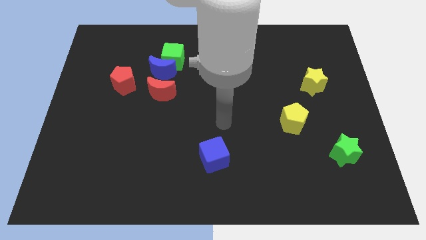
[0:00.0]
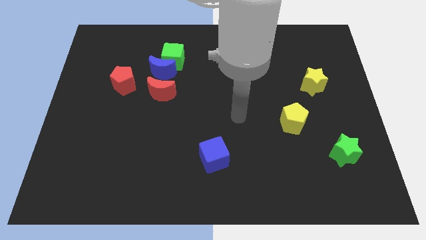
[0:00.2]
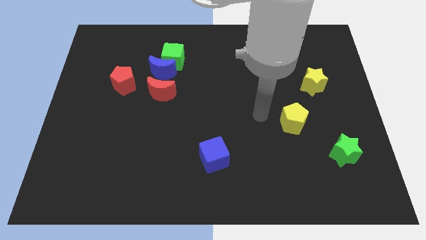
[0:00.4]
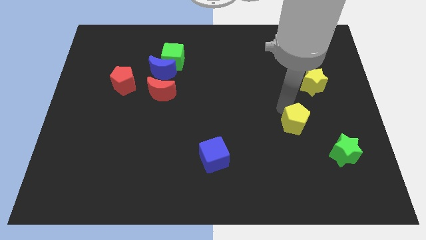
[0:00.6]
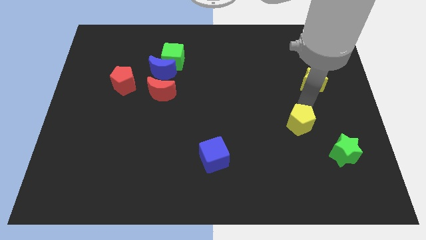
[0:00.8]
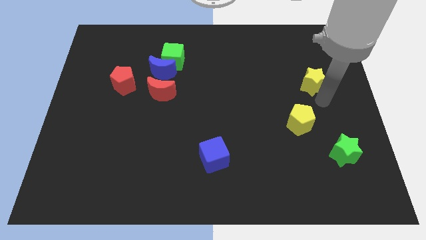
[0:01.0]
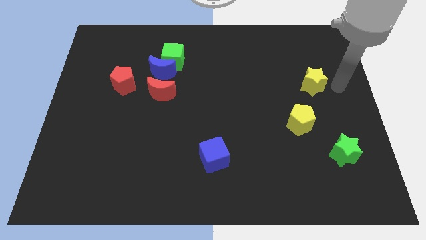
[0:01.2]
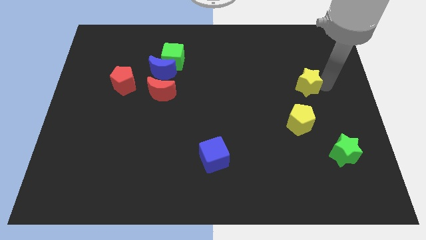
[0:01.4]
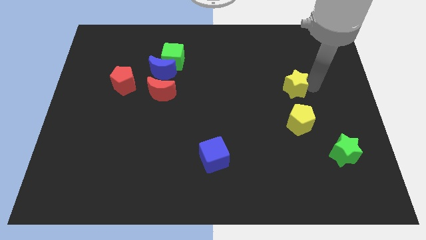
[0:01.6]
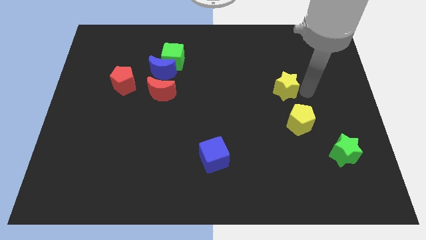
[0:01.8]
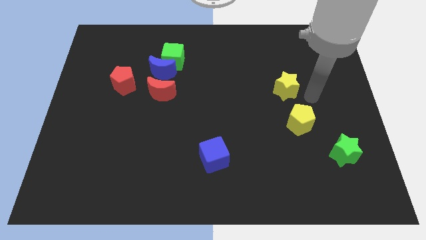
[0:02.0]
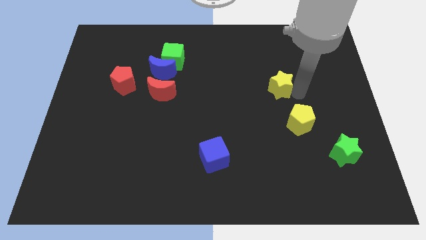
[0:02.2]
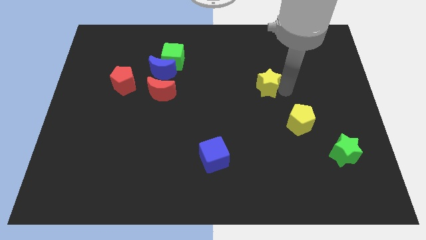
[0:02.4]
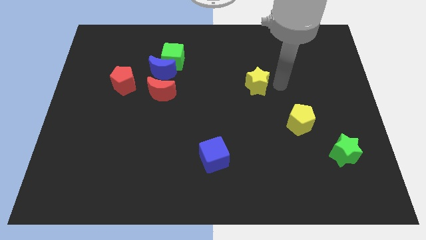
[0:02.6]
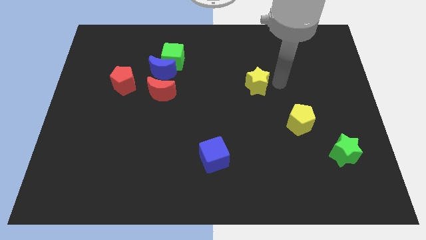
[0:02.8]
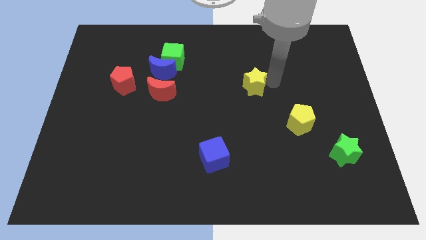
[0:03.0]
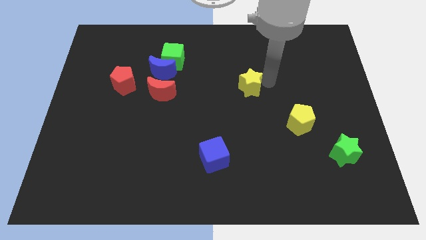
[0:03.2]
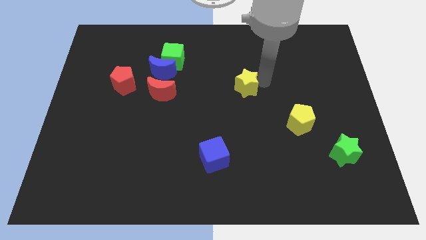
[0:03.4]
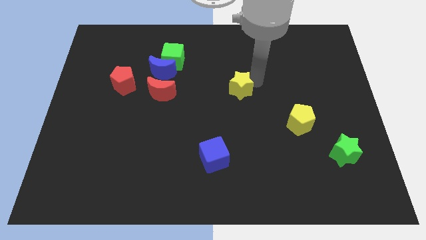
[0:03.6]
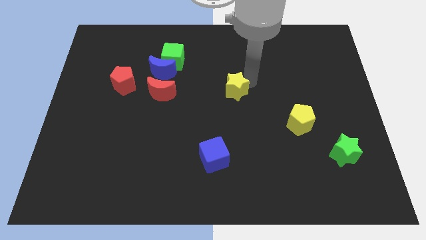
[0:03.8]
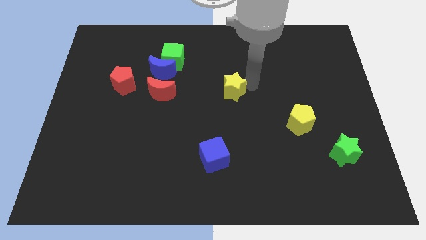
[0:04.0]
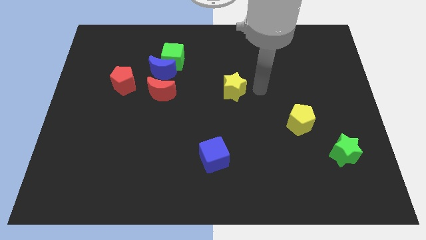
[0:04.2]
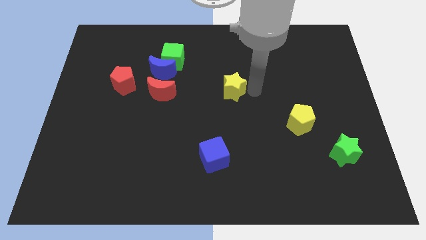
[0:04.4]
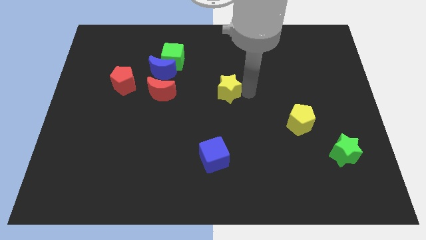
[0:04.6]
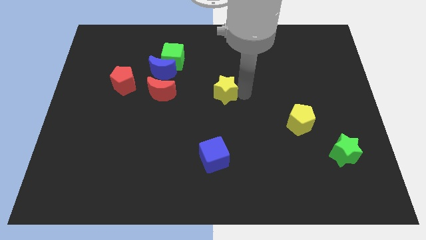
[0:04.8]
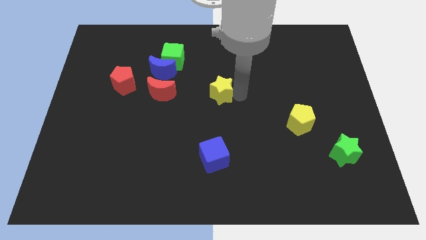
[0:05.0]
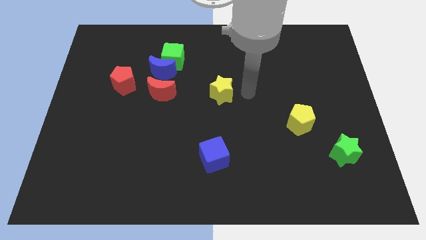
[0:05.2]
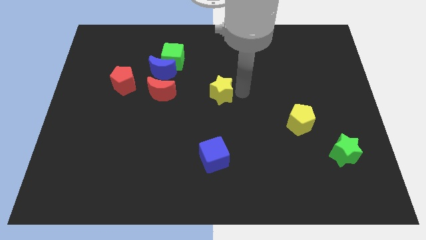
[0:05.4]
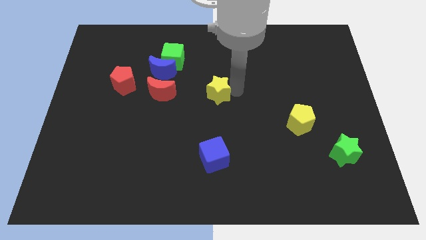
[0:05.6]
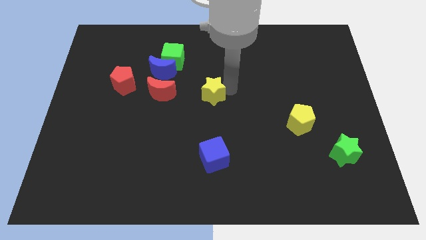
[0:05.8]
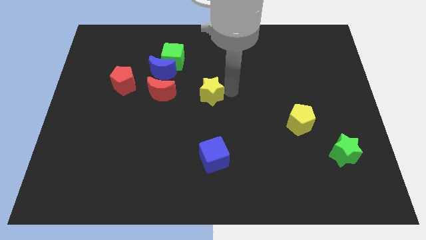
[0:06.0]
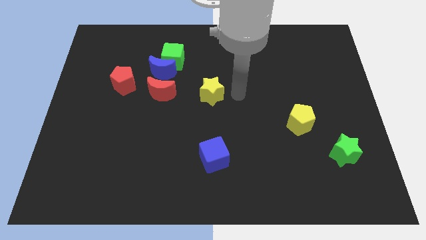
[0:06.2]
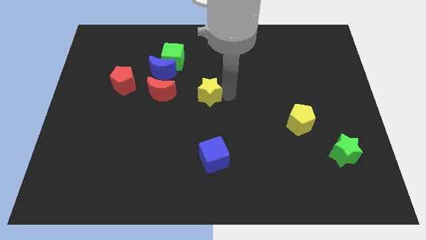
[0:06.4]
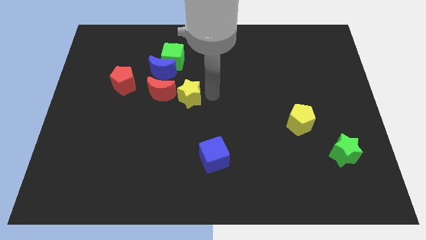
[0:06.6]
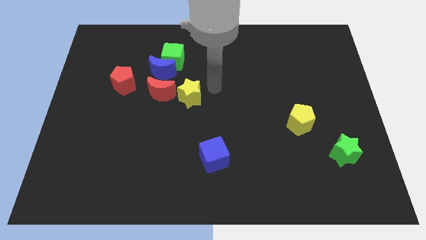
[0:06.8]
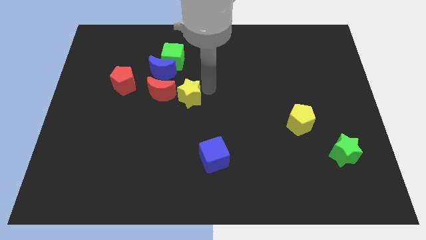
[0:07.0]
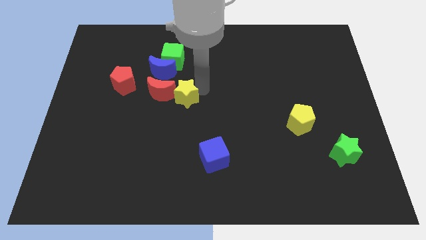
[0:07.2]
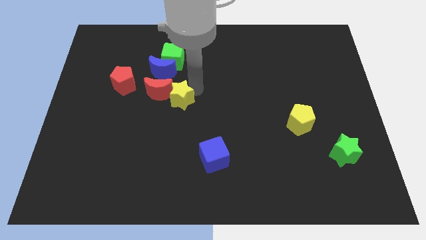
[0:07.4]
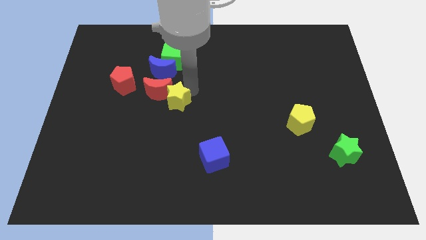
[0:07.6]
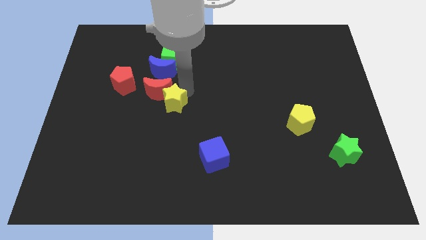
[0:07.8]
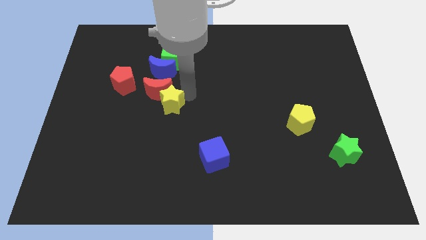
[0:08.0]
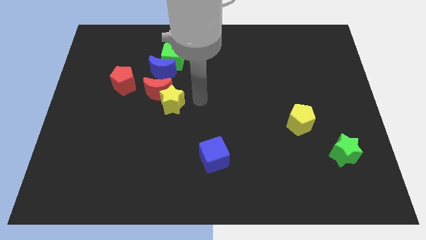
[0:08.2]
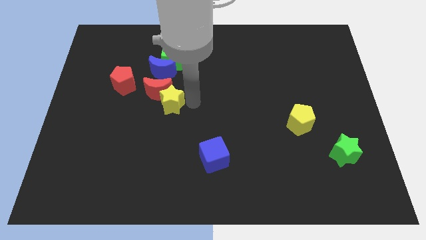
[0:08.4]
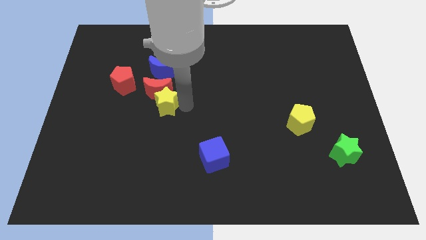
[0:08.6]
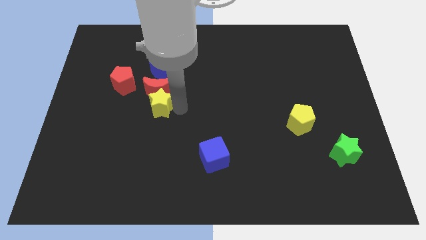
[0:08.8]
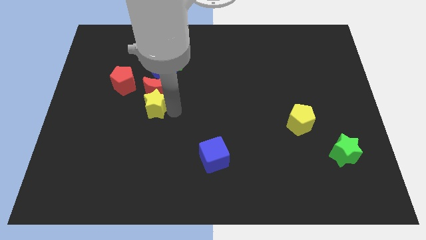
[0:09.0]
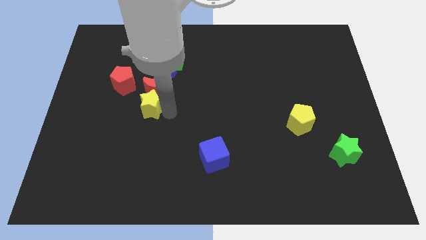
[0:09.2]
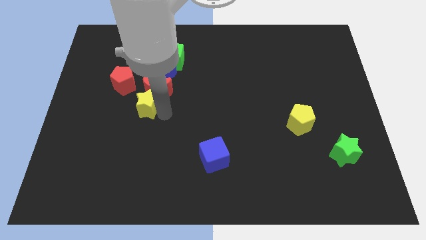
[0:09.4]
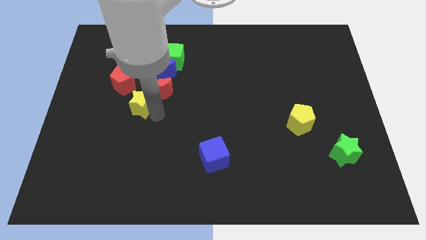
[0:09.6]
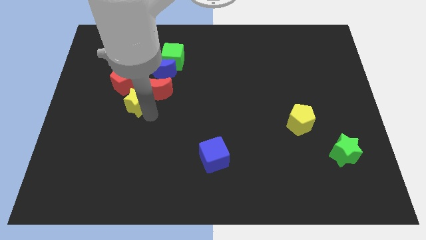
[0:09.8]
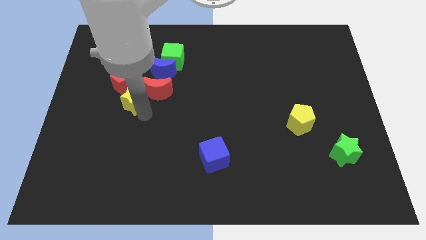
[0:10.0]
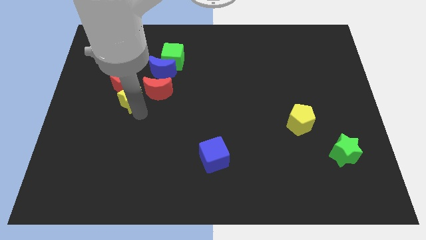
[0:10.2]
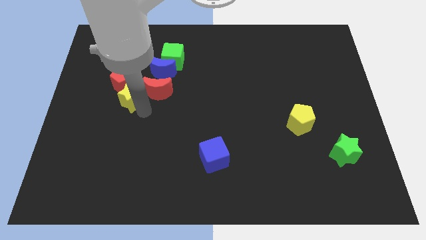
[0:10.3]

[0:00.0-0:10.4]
move the yellow star next to the red pentagon

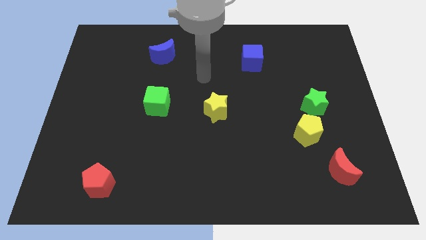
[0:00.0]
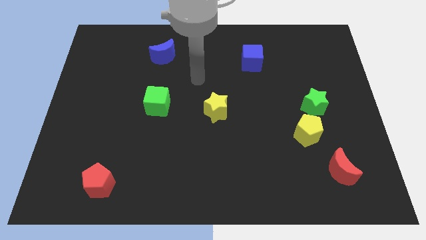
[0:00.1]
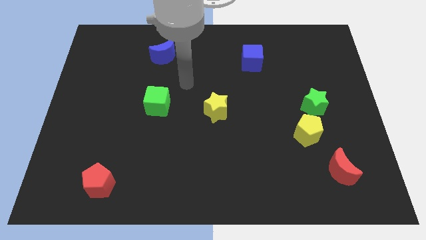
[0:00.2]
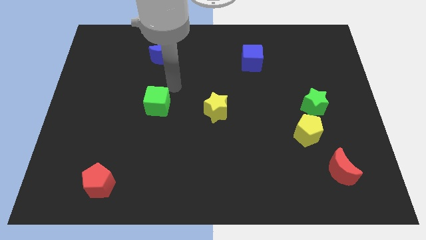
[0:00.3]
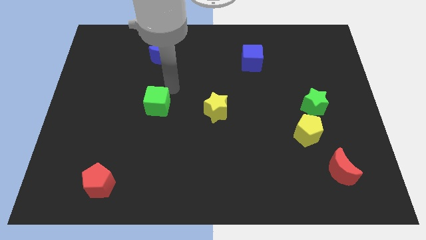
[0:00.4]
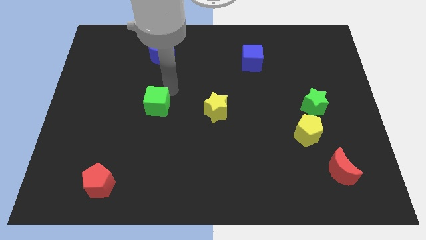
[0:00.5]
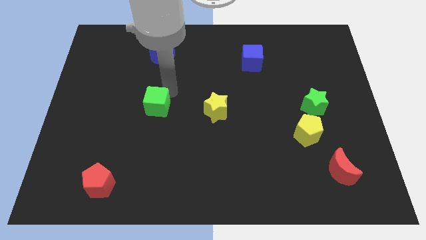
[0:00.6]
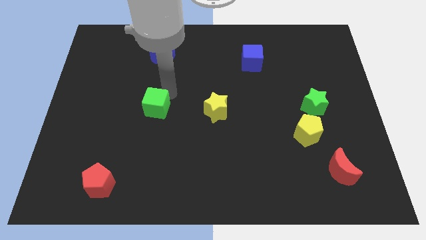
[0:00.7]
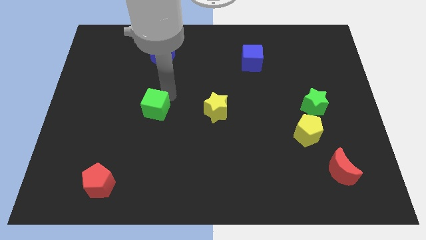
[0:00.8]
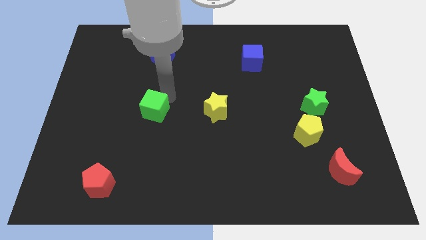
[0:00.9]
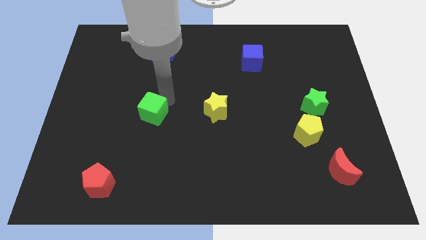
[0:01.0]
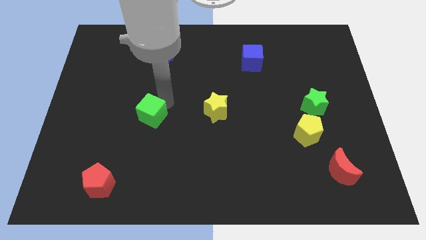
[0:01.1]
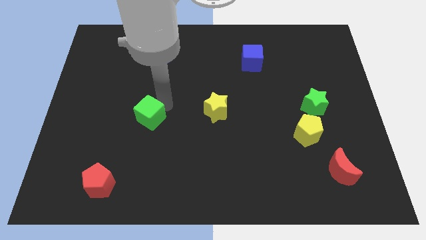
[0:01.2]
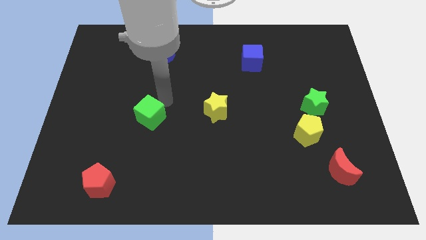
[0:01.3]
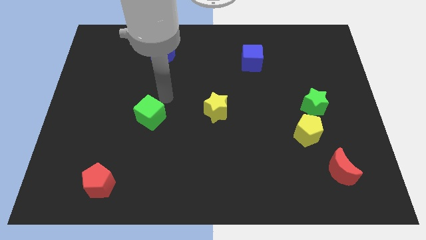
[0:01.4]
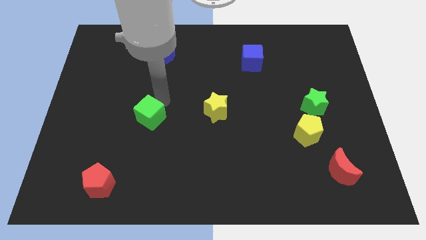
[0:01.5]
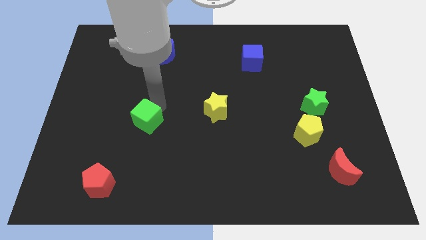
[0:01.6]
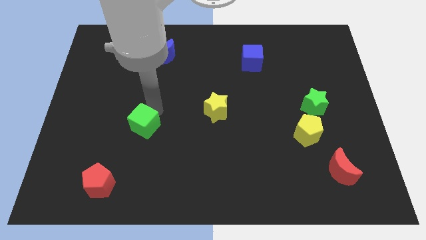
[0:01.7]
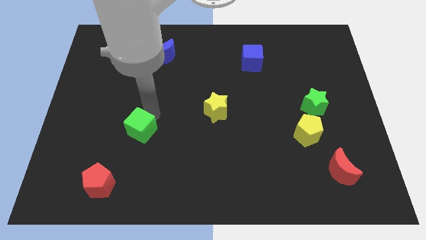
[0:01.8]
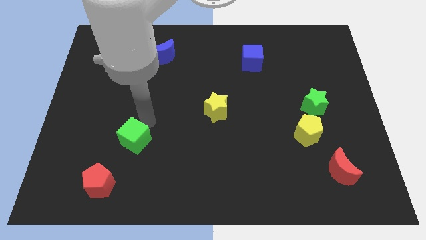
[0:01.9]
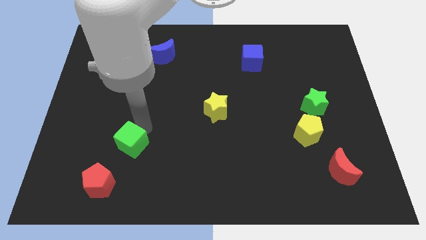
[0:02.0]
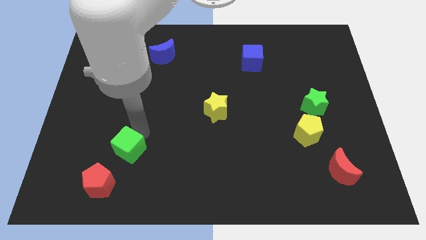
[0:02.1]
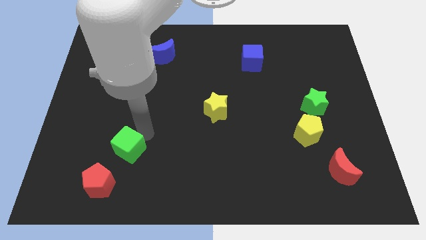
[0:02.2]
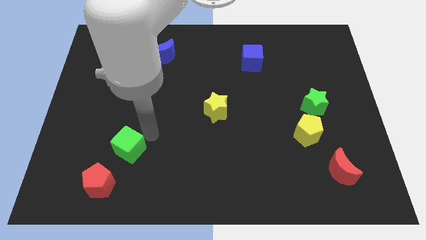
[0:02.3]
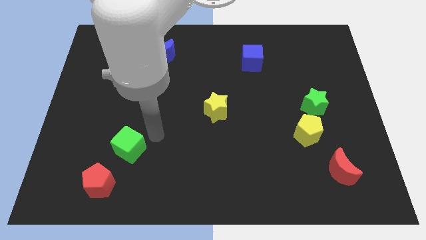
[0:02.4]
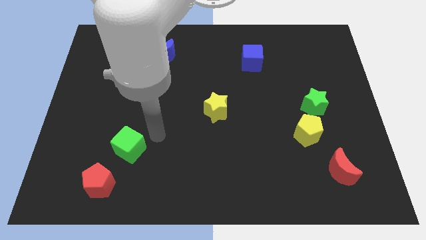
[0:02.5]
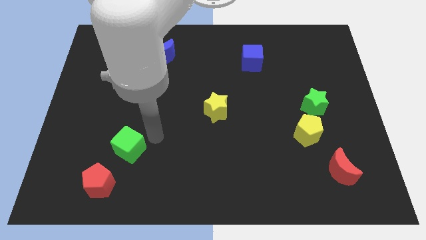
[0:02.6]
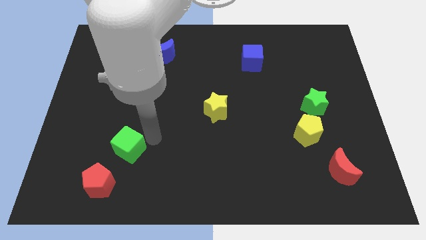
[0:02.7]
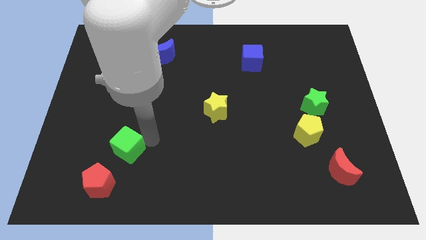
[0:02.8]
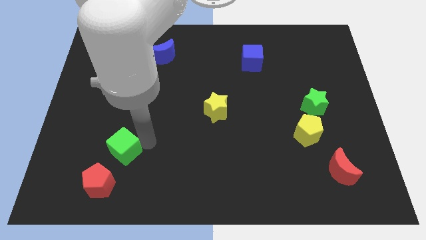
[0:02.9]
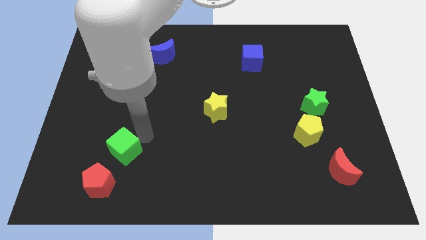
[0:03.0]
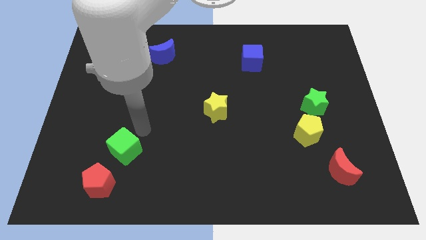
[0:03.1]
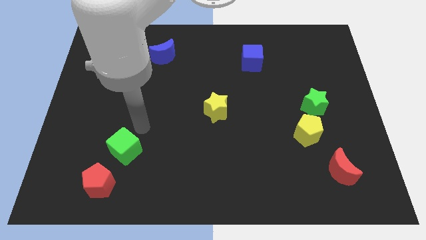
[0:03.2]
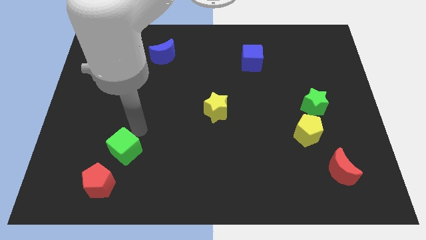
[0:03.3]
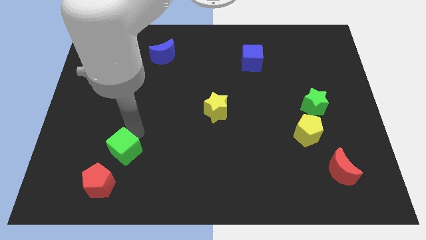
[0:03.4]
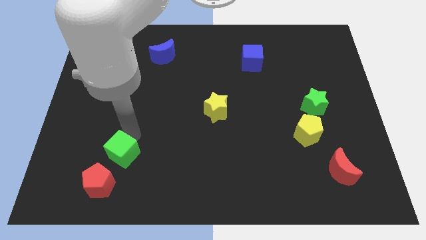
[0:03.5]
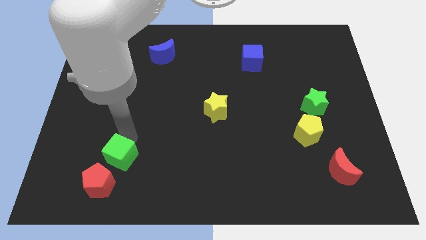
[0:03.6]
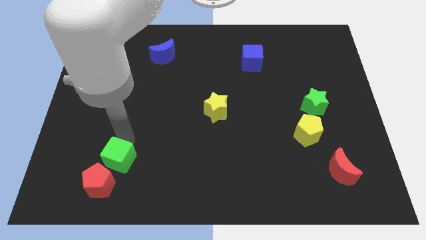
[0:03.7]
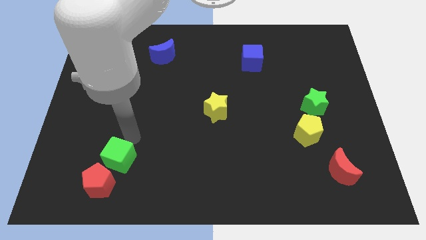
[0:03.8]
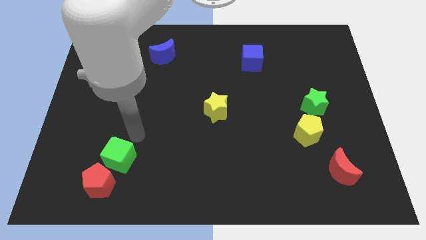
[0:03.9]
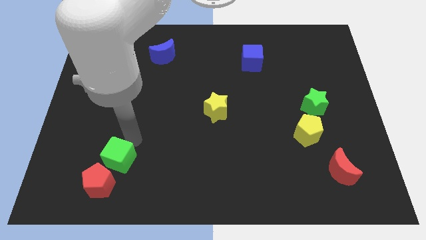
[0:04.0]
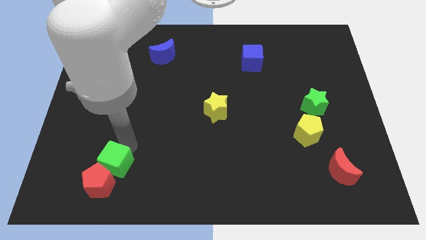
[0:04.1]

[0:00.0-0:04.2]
put the green cube next to the red pentagon
